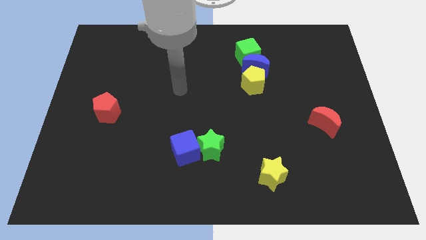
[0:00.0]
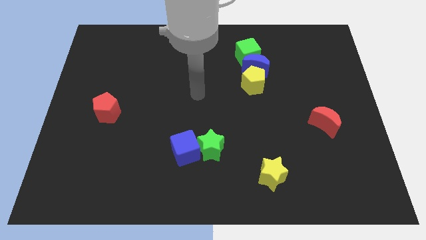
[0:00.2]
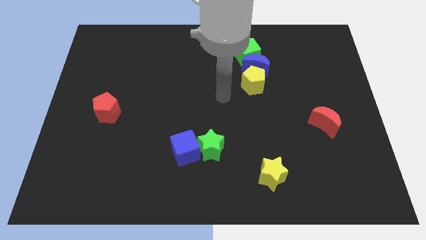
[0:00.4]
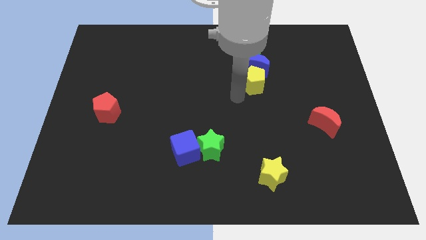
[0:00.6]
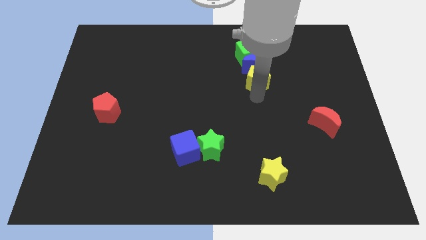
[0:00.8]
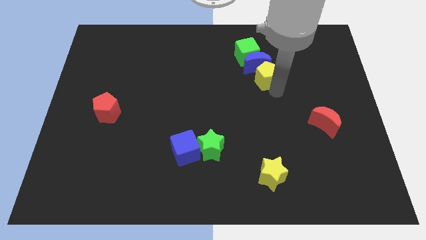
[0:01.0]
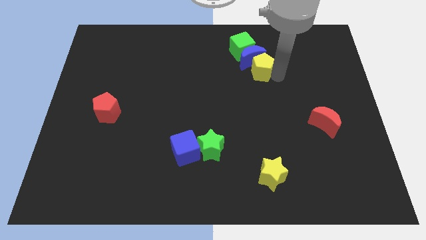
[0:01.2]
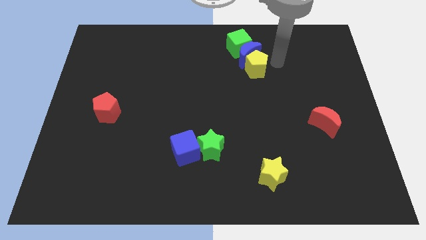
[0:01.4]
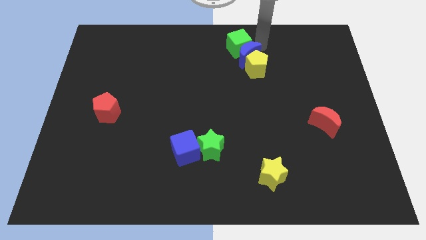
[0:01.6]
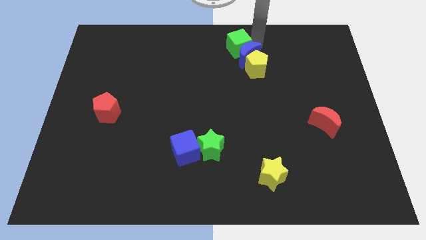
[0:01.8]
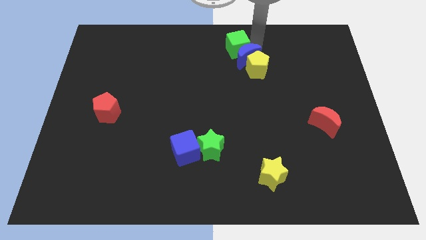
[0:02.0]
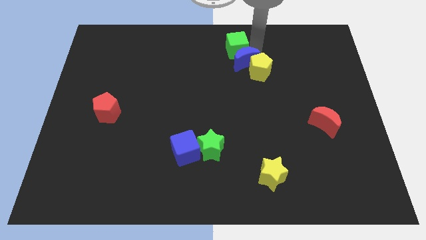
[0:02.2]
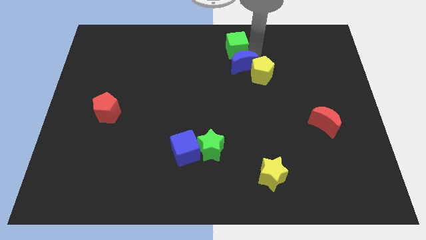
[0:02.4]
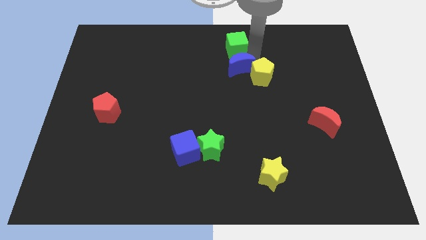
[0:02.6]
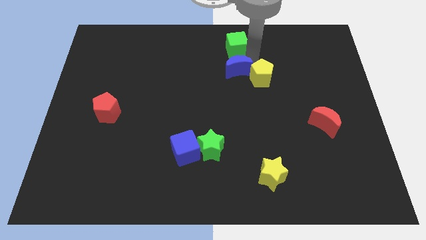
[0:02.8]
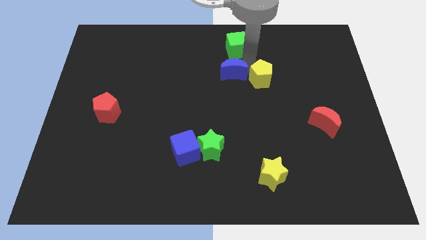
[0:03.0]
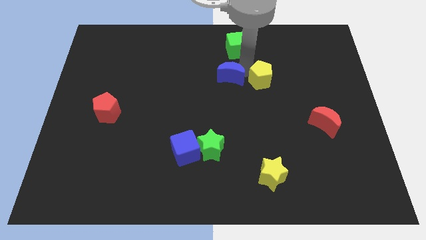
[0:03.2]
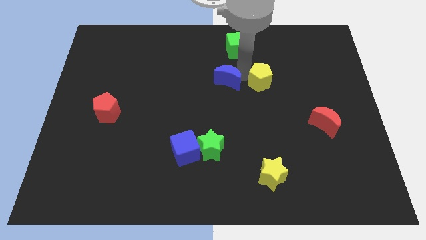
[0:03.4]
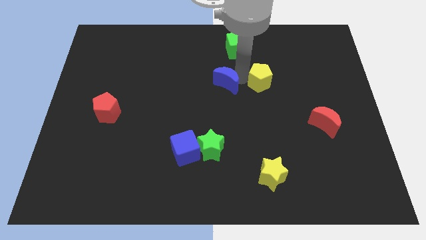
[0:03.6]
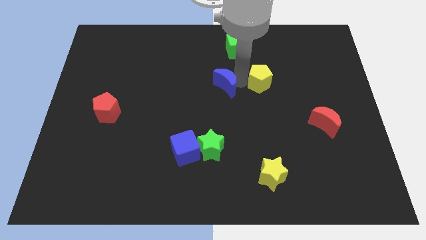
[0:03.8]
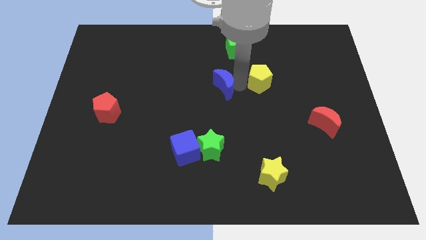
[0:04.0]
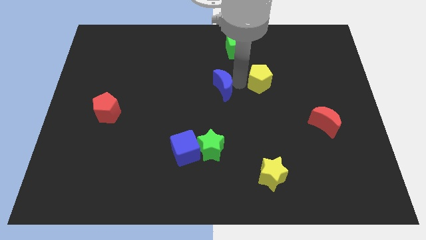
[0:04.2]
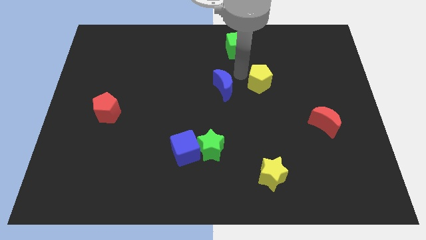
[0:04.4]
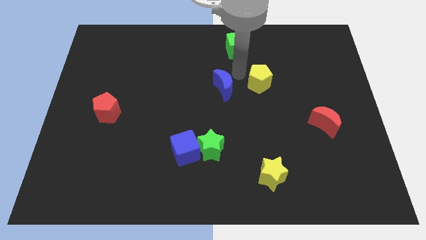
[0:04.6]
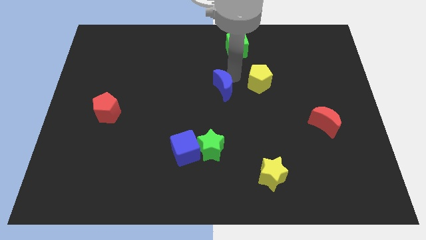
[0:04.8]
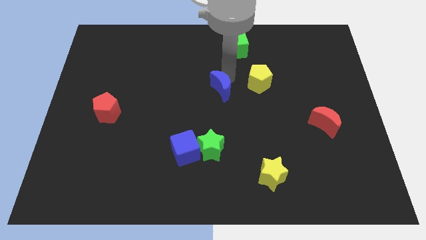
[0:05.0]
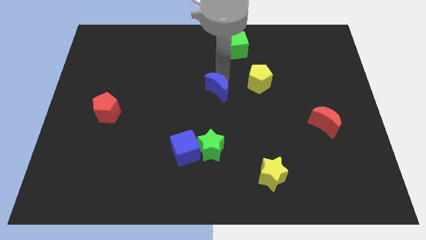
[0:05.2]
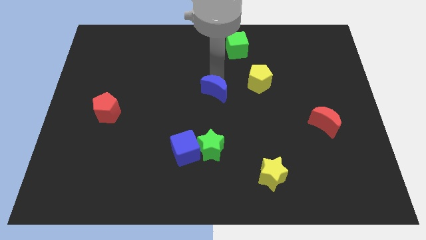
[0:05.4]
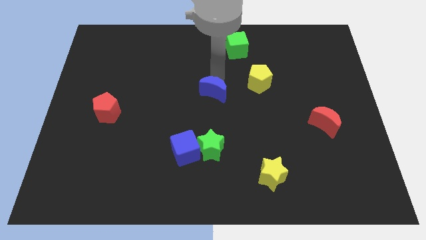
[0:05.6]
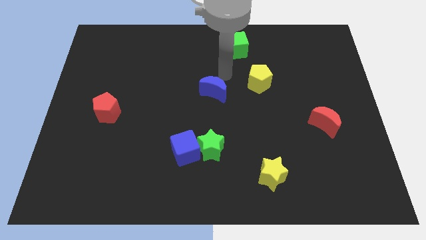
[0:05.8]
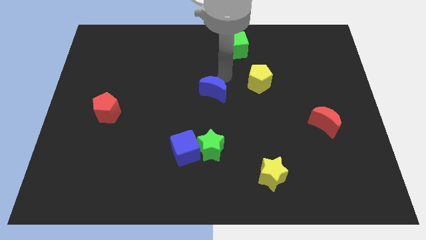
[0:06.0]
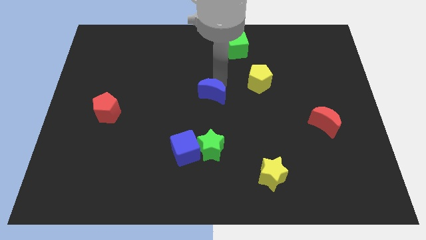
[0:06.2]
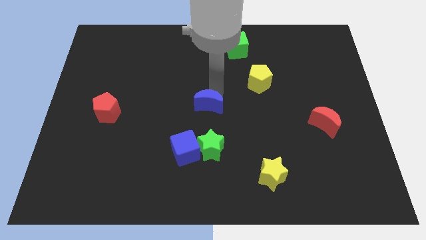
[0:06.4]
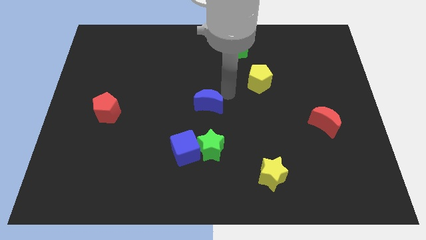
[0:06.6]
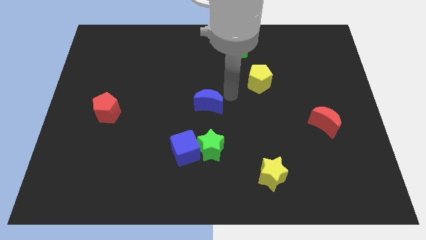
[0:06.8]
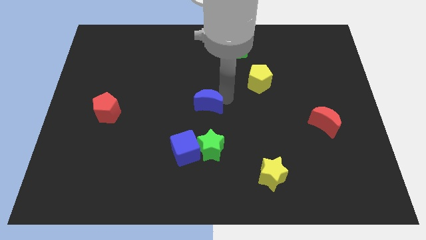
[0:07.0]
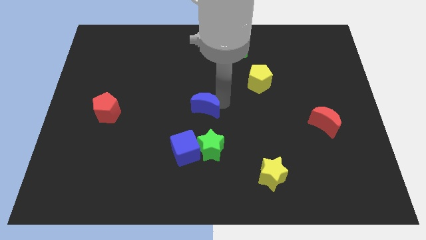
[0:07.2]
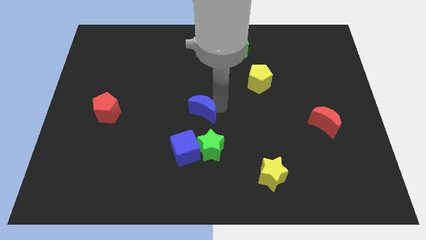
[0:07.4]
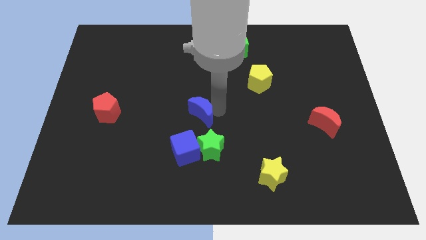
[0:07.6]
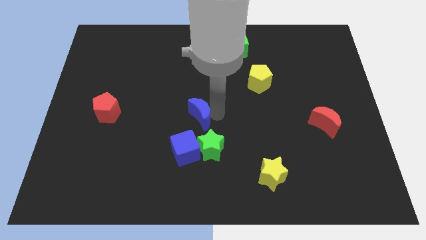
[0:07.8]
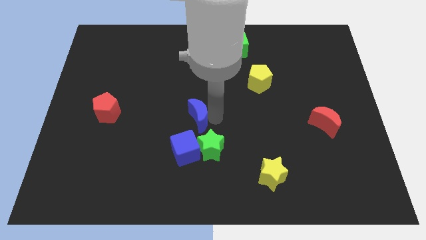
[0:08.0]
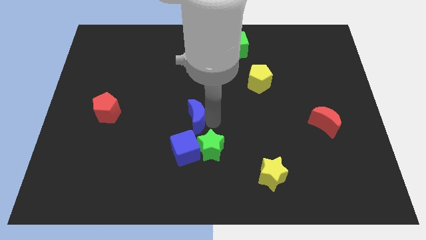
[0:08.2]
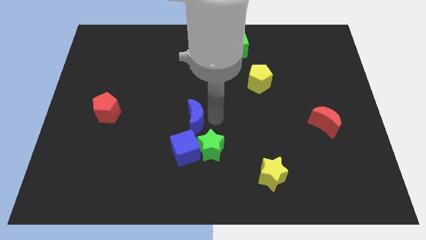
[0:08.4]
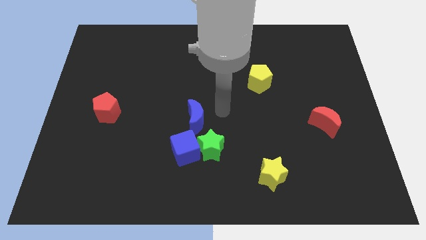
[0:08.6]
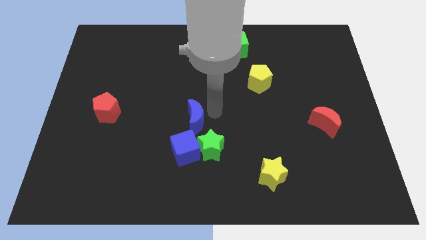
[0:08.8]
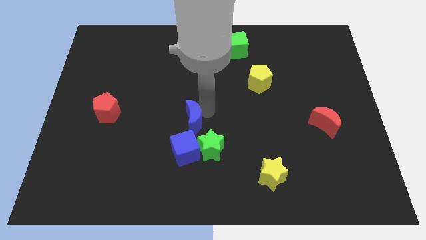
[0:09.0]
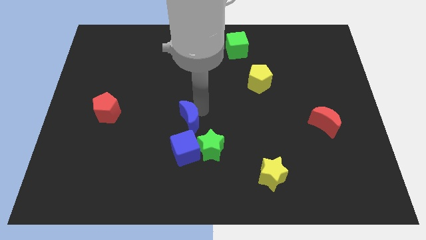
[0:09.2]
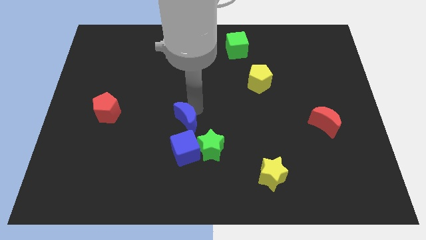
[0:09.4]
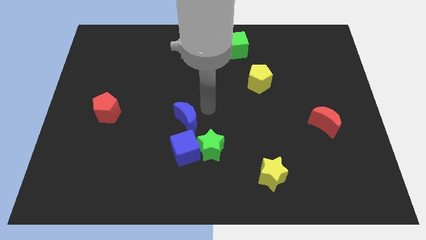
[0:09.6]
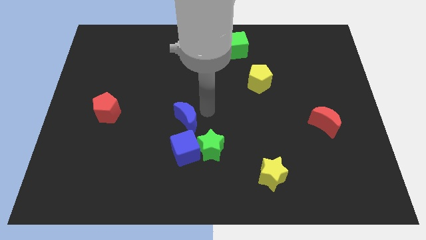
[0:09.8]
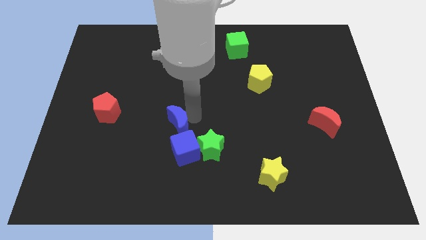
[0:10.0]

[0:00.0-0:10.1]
push the blue moon to the top left of the blue cube

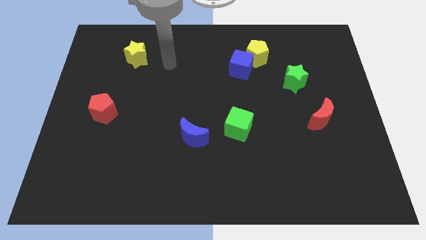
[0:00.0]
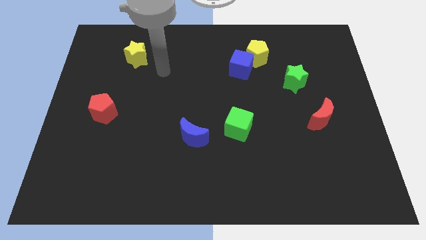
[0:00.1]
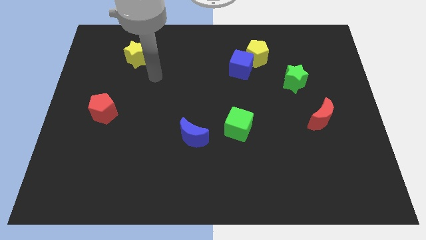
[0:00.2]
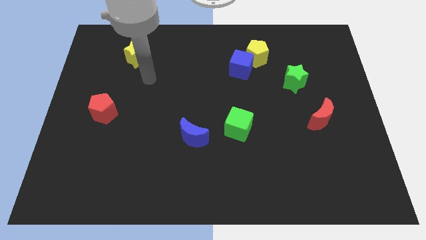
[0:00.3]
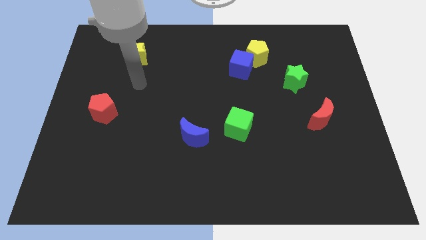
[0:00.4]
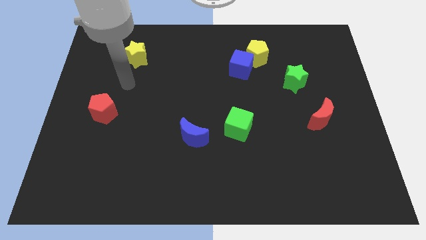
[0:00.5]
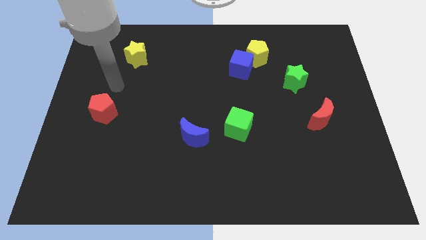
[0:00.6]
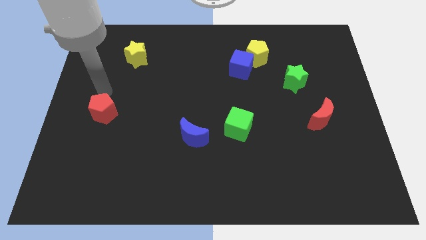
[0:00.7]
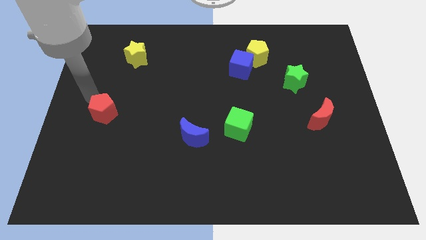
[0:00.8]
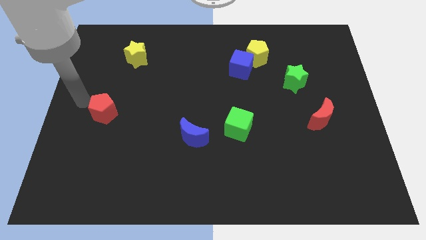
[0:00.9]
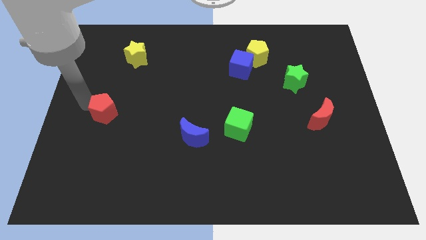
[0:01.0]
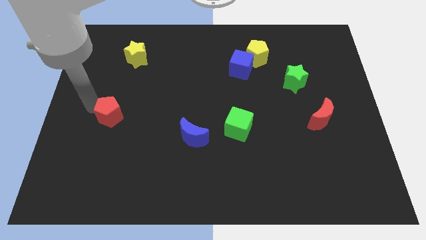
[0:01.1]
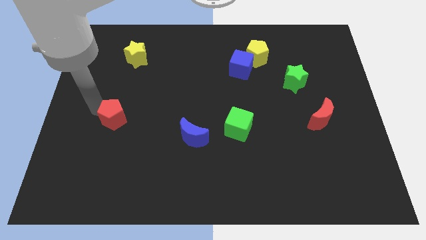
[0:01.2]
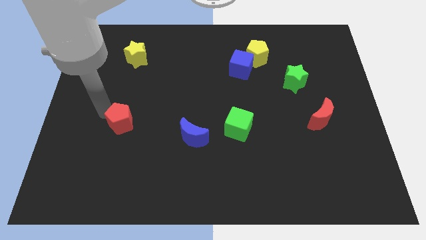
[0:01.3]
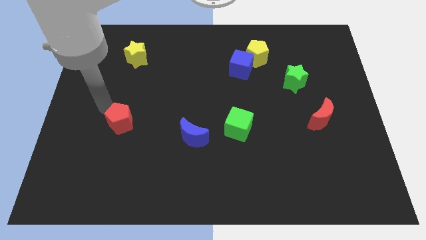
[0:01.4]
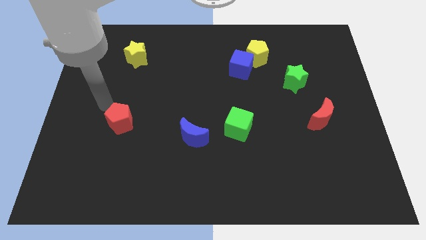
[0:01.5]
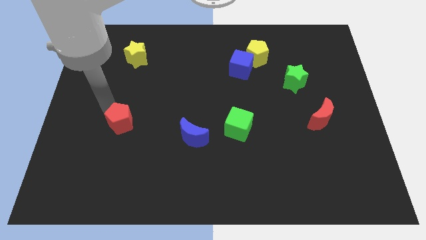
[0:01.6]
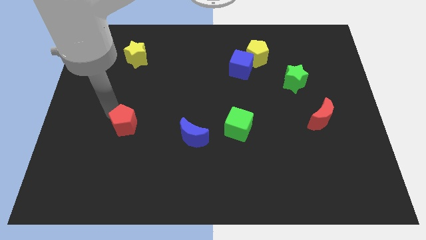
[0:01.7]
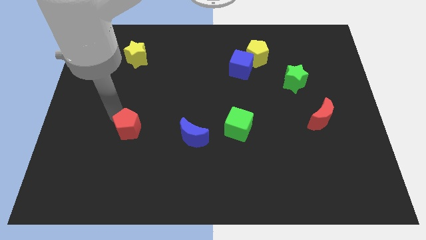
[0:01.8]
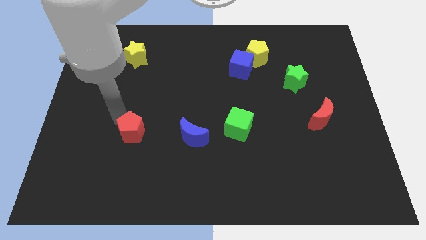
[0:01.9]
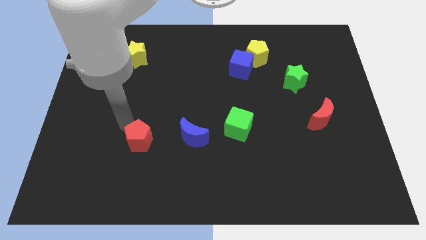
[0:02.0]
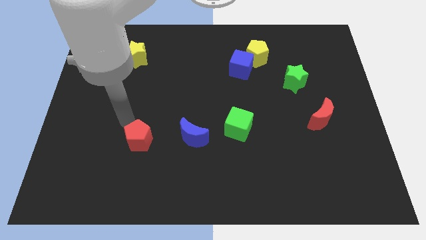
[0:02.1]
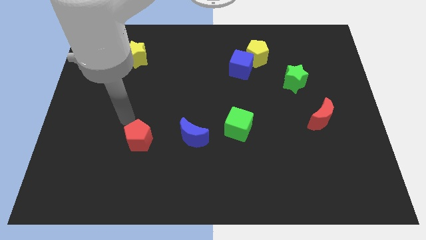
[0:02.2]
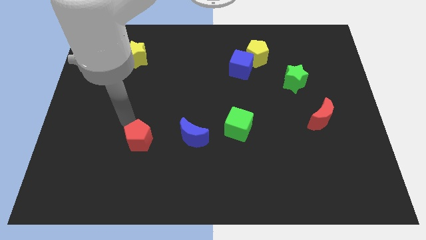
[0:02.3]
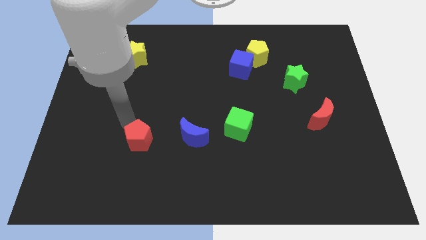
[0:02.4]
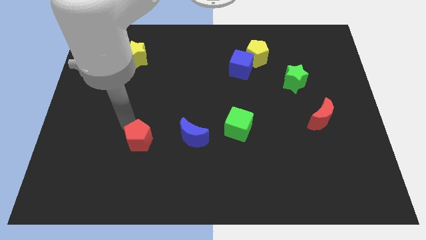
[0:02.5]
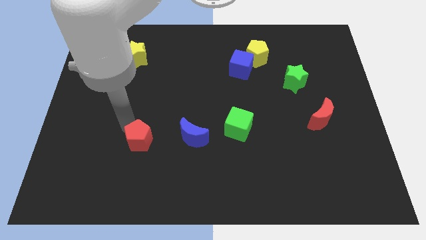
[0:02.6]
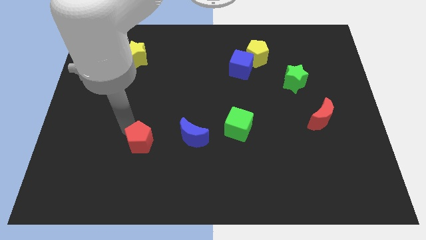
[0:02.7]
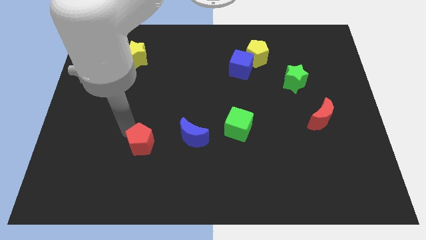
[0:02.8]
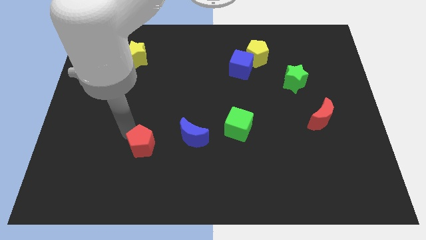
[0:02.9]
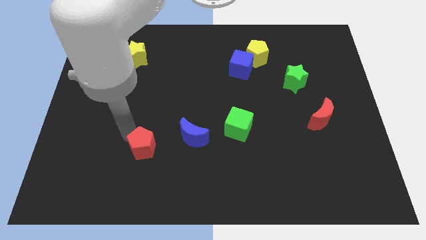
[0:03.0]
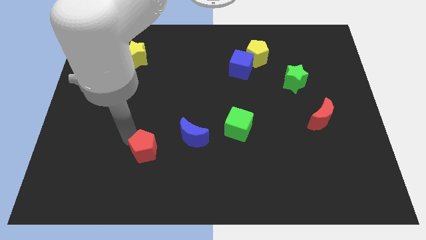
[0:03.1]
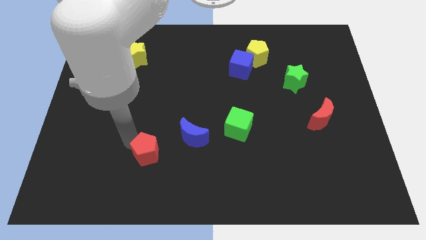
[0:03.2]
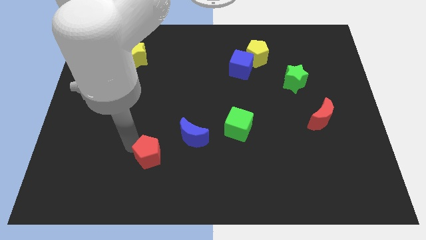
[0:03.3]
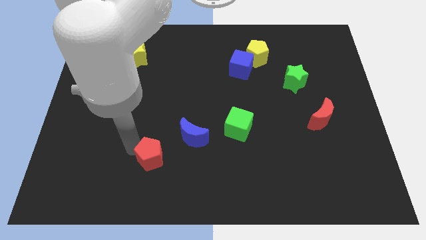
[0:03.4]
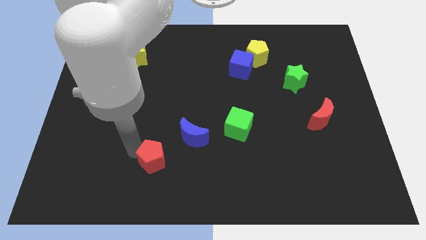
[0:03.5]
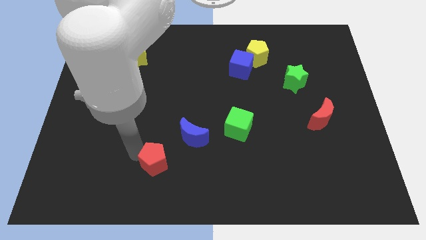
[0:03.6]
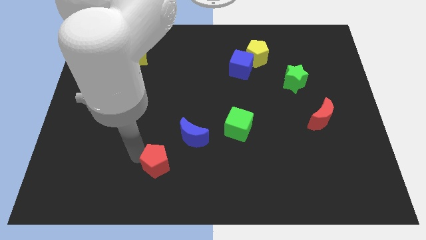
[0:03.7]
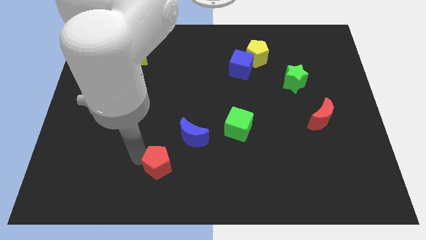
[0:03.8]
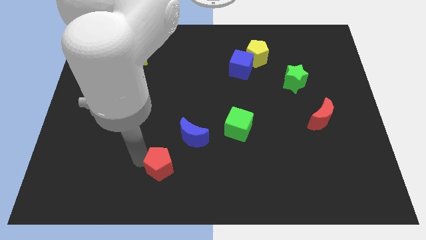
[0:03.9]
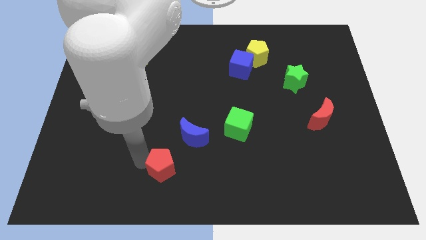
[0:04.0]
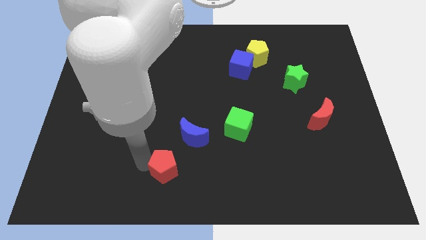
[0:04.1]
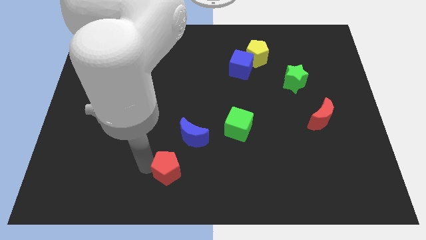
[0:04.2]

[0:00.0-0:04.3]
move the red pentagon to the bottom side of the blue moon
